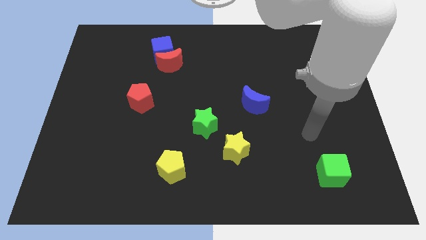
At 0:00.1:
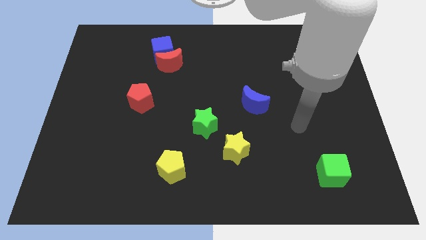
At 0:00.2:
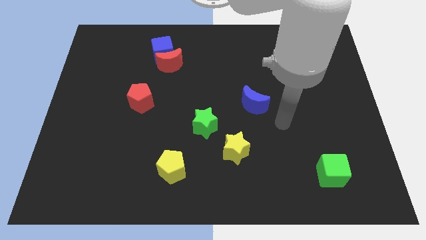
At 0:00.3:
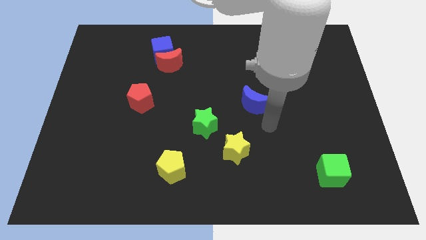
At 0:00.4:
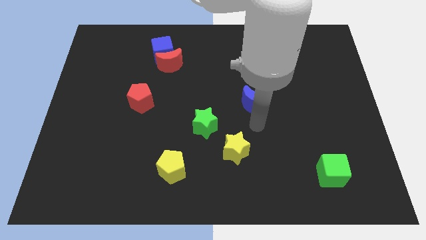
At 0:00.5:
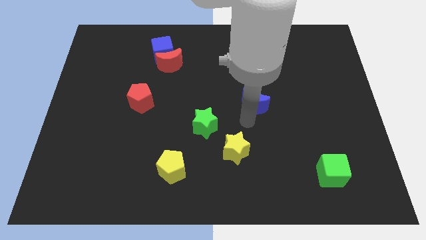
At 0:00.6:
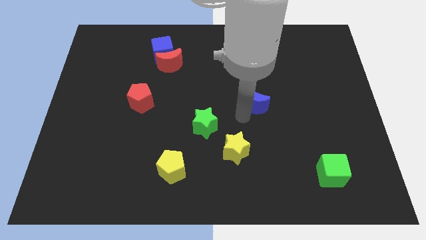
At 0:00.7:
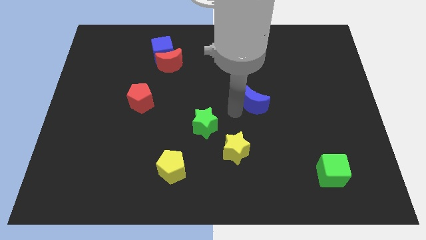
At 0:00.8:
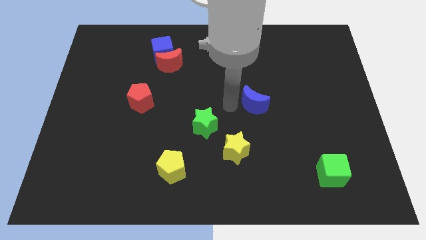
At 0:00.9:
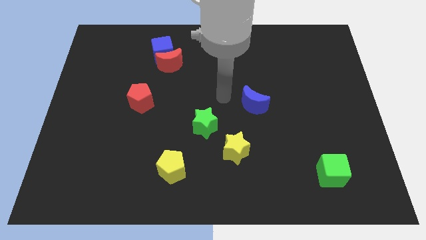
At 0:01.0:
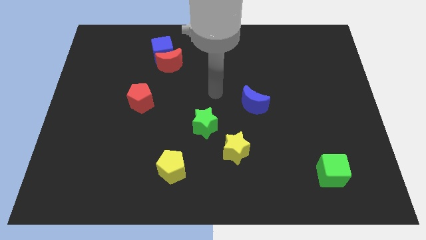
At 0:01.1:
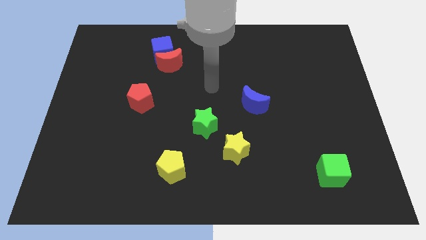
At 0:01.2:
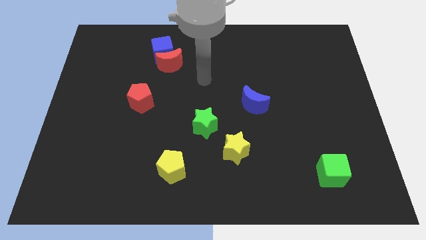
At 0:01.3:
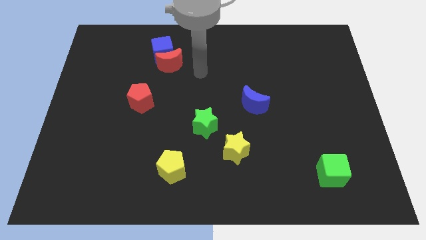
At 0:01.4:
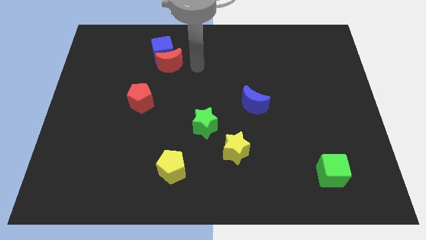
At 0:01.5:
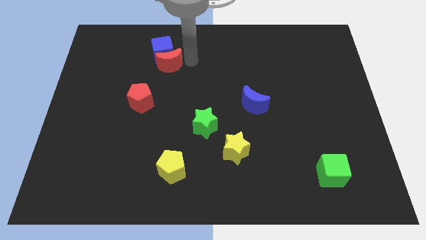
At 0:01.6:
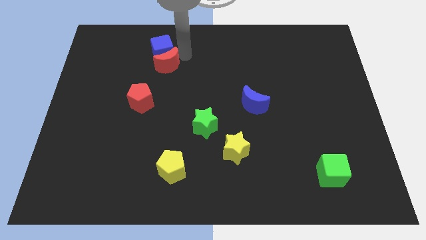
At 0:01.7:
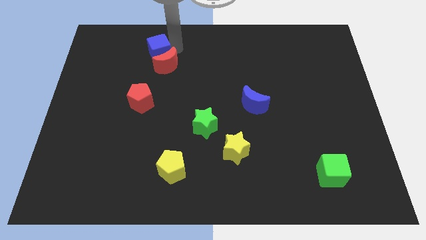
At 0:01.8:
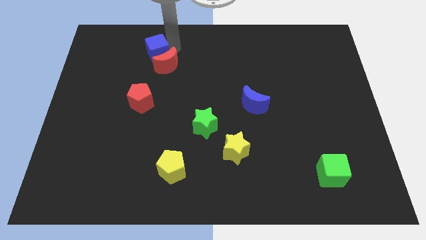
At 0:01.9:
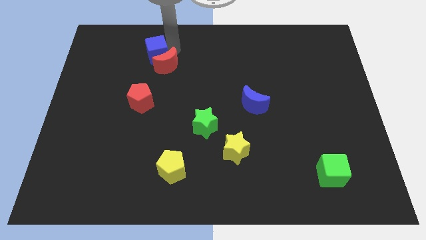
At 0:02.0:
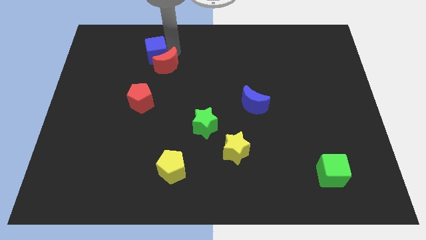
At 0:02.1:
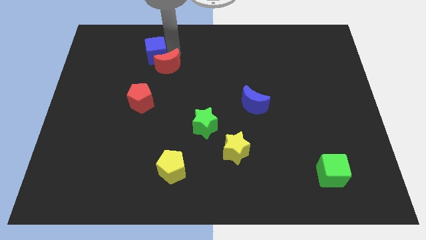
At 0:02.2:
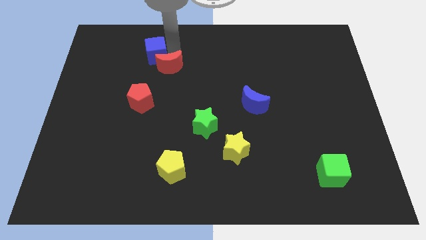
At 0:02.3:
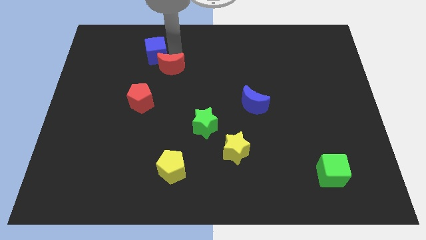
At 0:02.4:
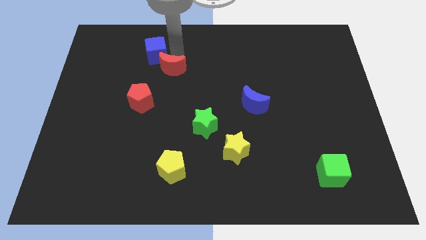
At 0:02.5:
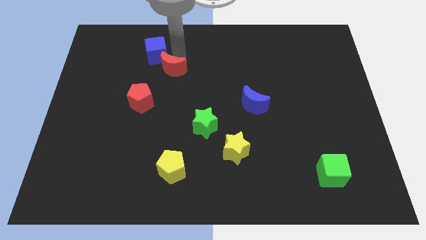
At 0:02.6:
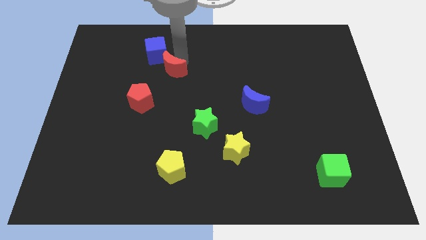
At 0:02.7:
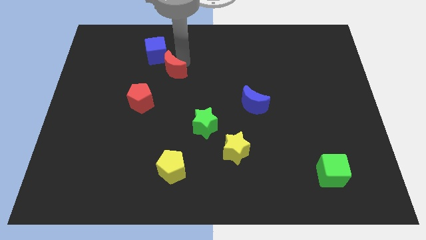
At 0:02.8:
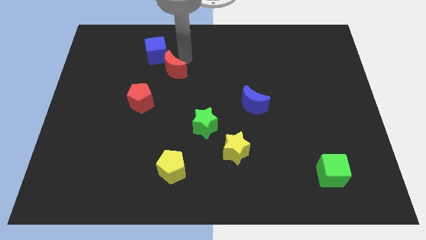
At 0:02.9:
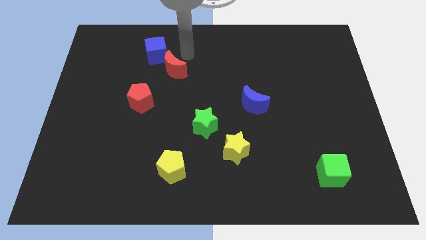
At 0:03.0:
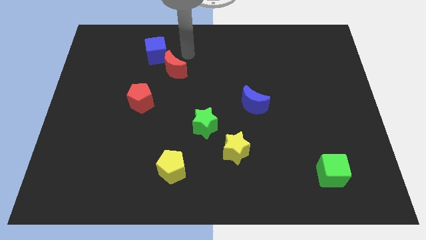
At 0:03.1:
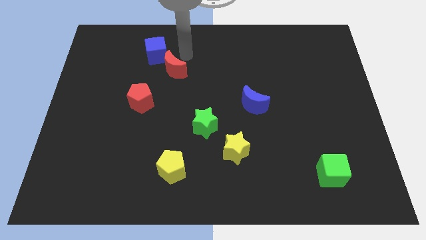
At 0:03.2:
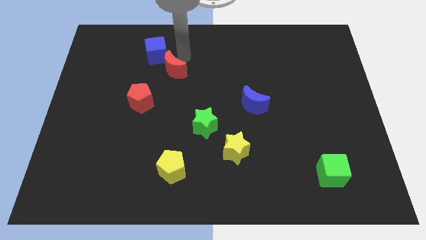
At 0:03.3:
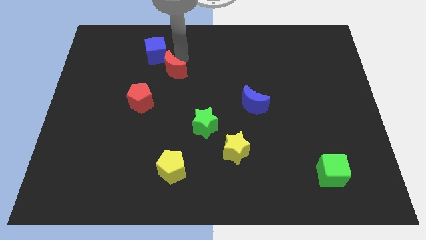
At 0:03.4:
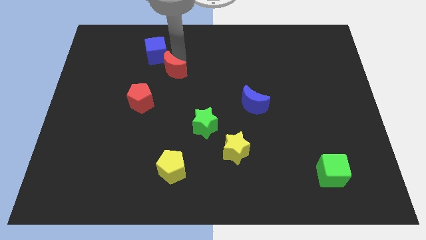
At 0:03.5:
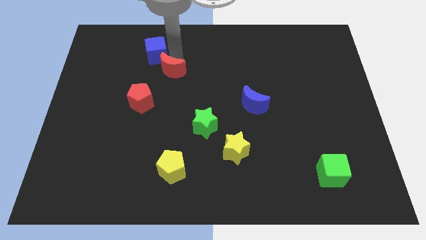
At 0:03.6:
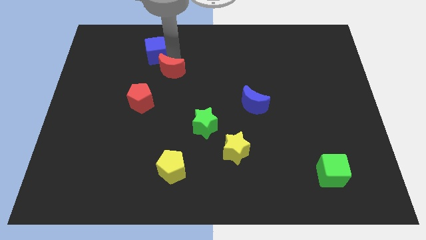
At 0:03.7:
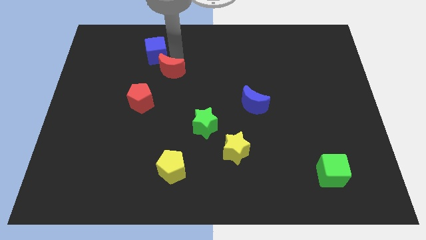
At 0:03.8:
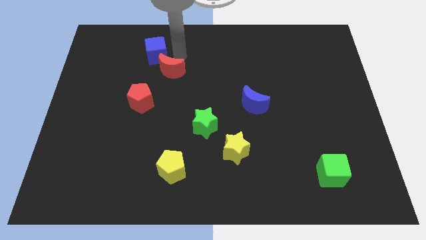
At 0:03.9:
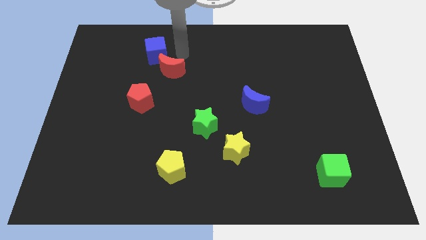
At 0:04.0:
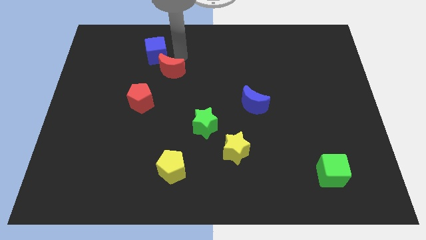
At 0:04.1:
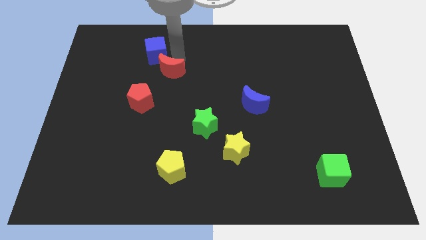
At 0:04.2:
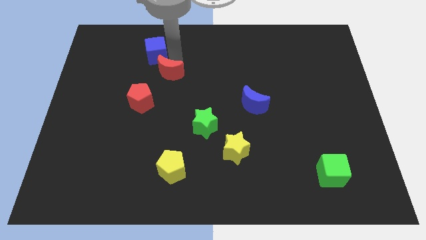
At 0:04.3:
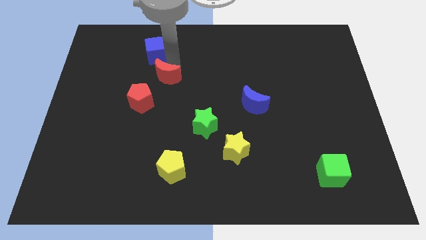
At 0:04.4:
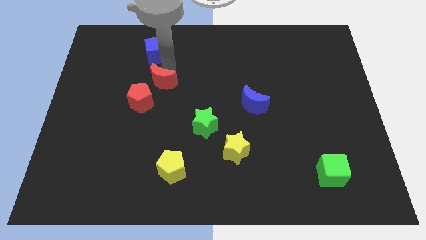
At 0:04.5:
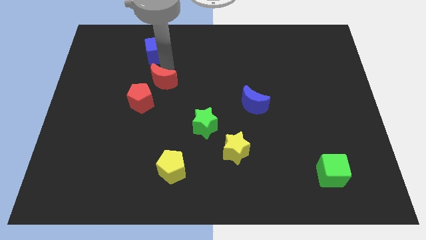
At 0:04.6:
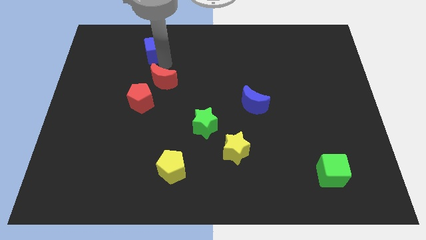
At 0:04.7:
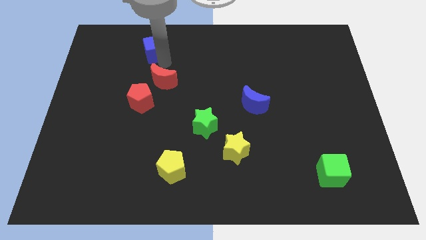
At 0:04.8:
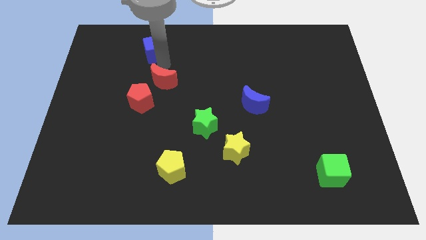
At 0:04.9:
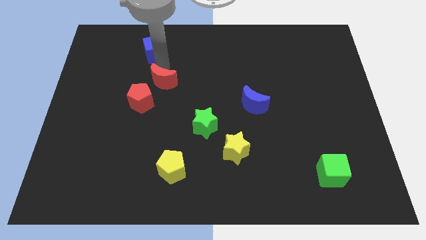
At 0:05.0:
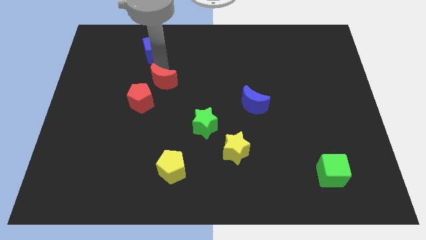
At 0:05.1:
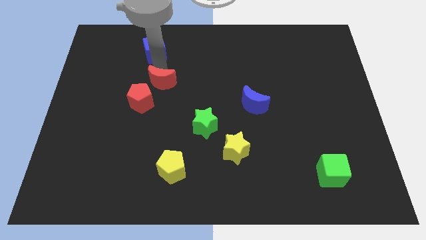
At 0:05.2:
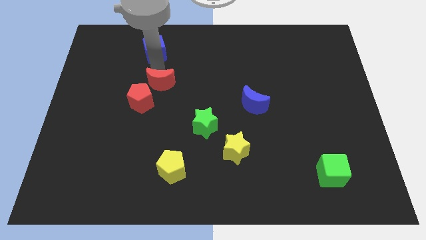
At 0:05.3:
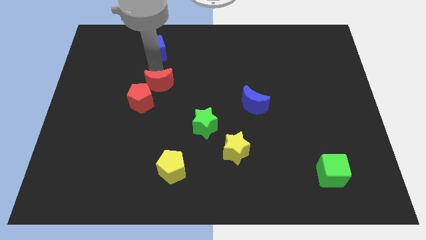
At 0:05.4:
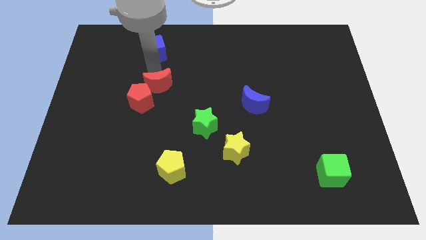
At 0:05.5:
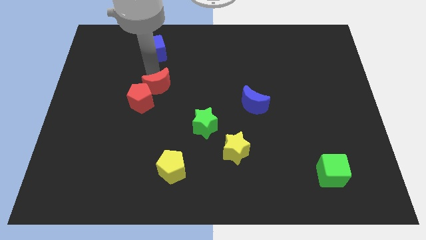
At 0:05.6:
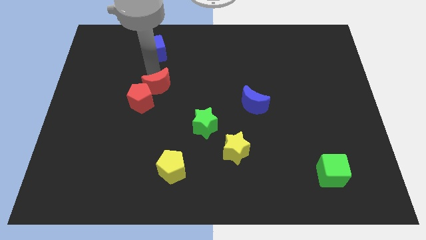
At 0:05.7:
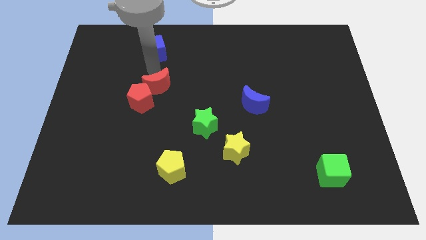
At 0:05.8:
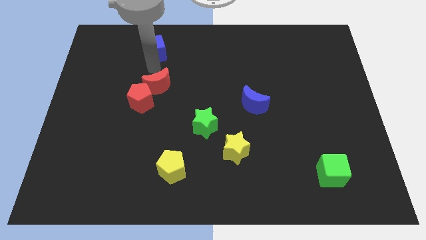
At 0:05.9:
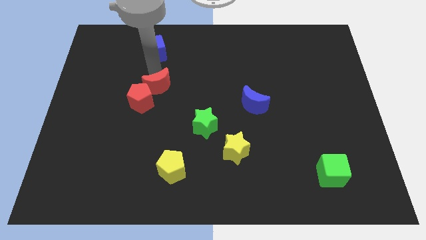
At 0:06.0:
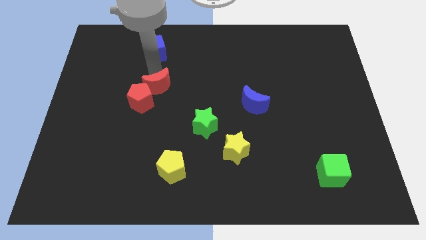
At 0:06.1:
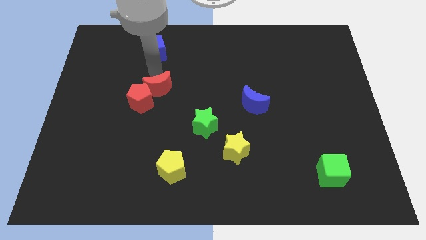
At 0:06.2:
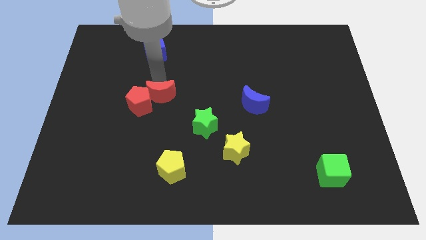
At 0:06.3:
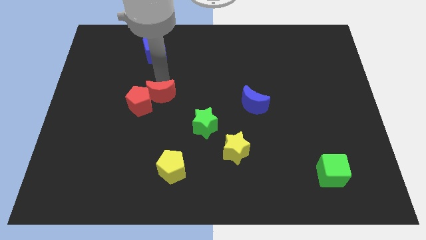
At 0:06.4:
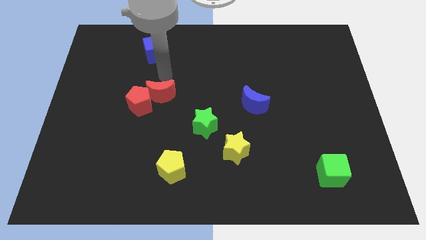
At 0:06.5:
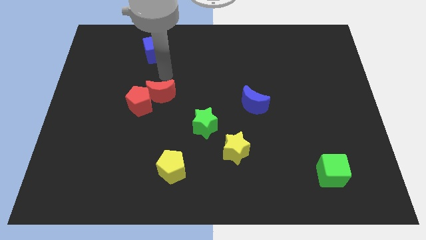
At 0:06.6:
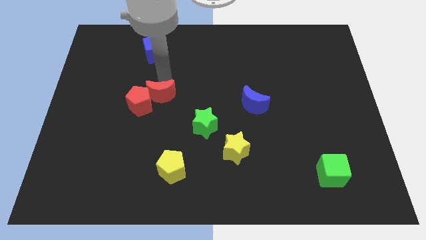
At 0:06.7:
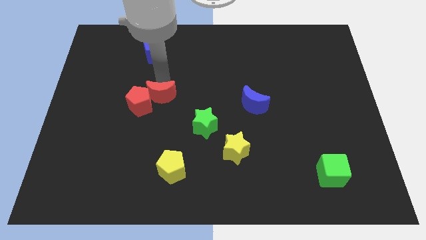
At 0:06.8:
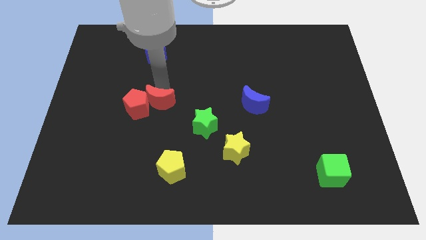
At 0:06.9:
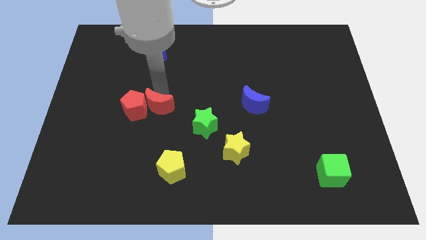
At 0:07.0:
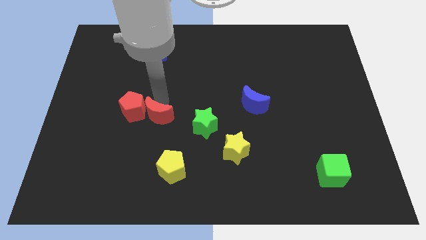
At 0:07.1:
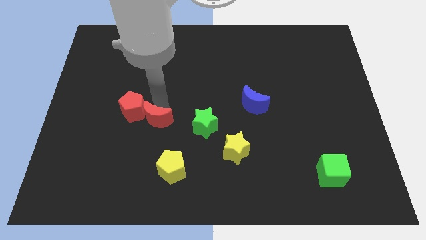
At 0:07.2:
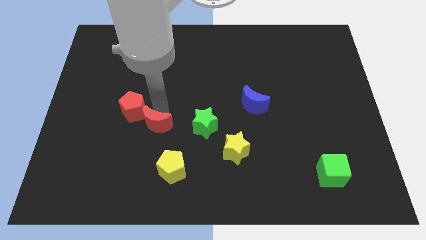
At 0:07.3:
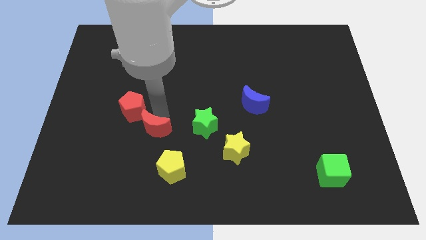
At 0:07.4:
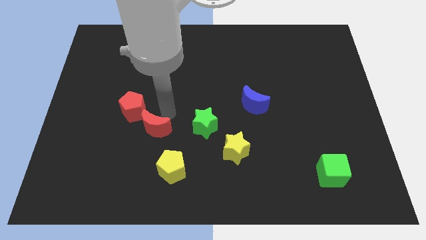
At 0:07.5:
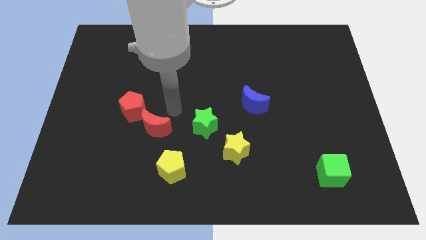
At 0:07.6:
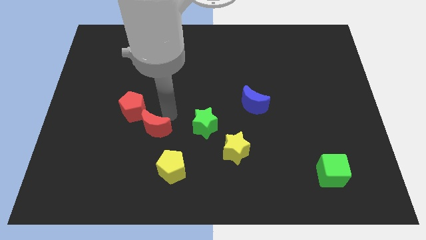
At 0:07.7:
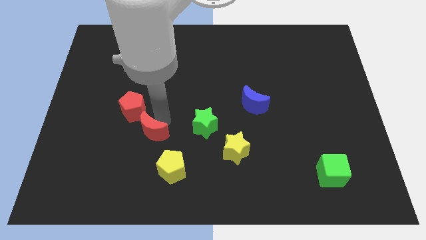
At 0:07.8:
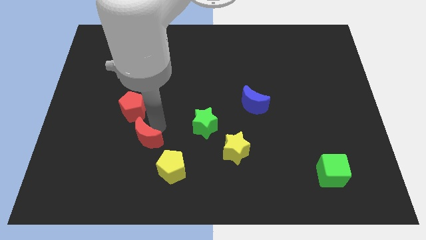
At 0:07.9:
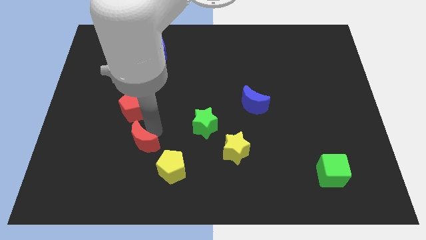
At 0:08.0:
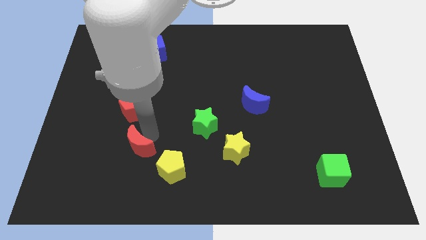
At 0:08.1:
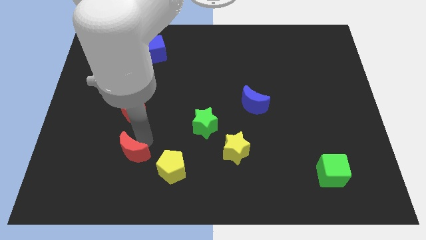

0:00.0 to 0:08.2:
put the red moon to the left side of the yellow pentagon
